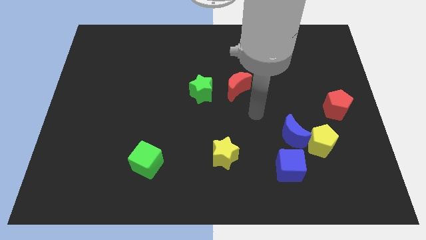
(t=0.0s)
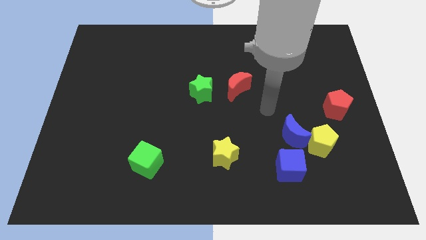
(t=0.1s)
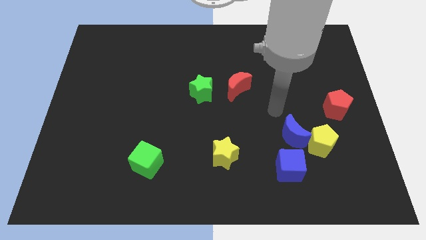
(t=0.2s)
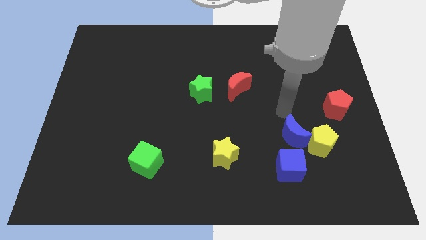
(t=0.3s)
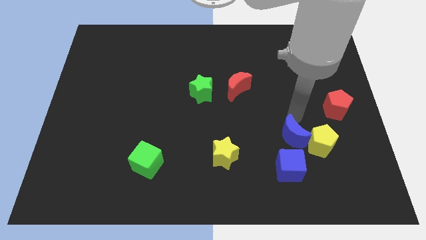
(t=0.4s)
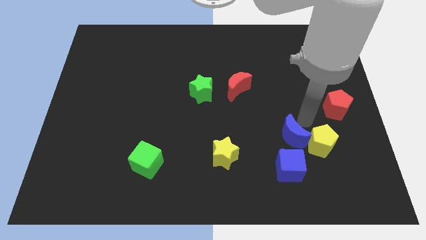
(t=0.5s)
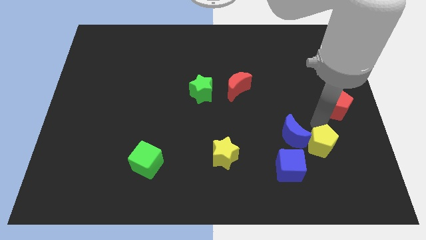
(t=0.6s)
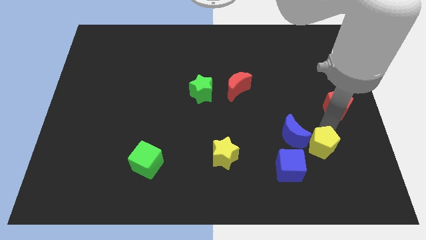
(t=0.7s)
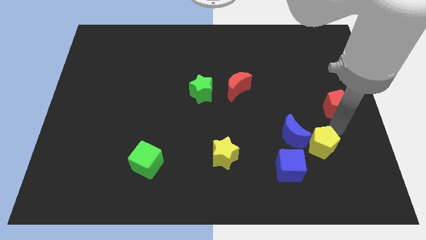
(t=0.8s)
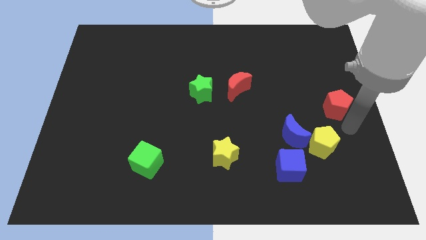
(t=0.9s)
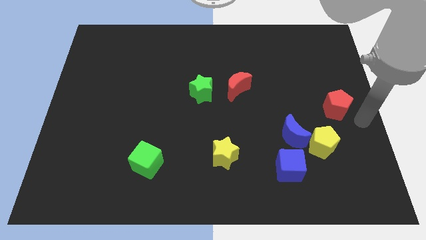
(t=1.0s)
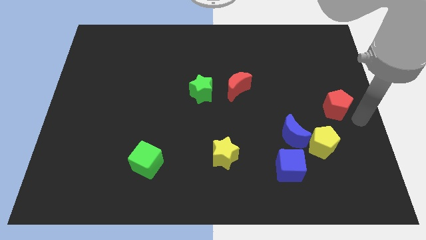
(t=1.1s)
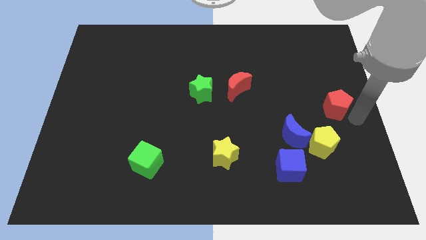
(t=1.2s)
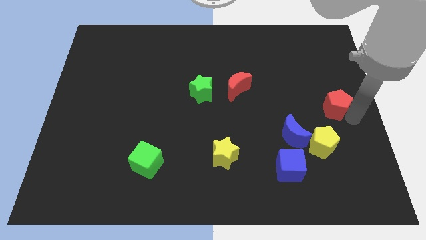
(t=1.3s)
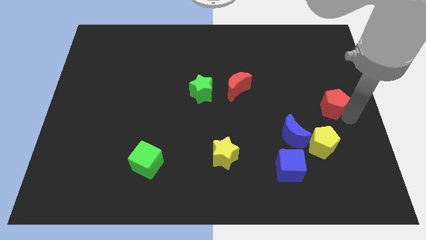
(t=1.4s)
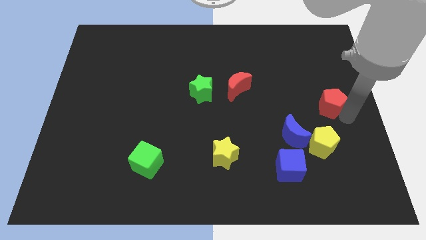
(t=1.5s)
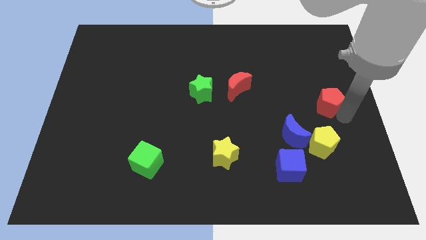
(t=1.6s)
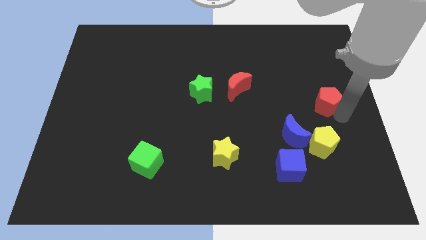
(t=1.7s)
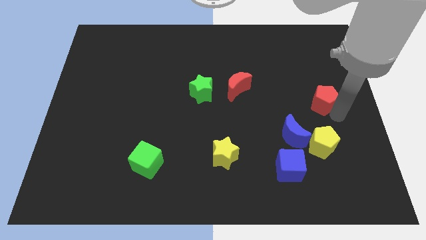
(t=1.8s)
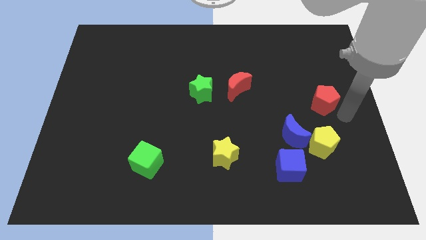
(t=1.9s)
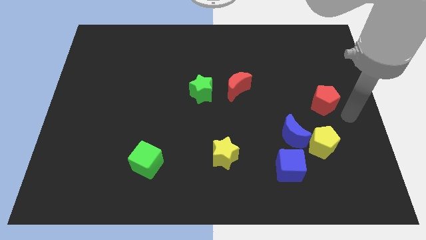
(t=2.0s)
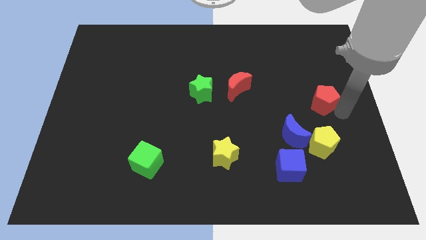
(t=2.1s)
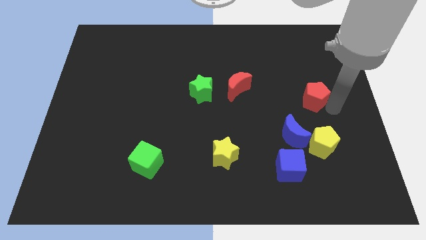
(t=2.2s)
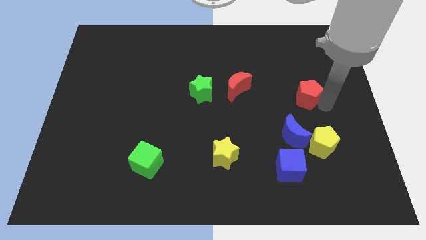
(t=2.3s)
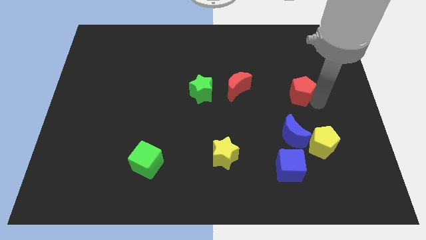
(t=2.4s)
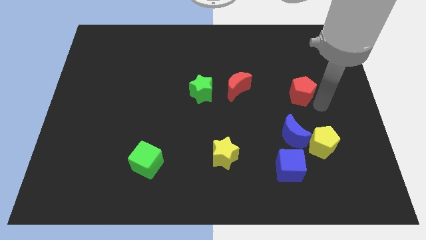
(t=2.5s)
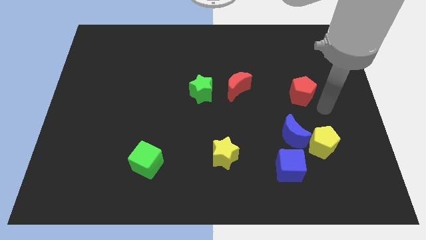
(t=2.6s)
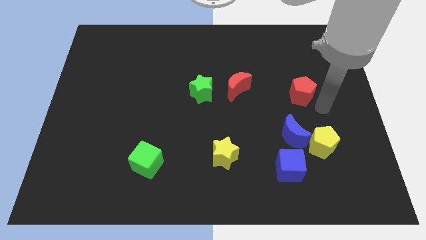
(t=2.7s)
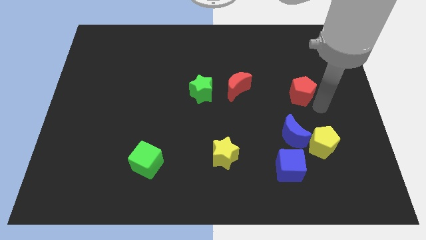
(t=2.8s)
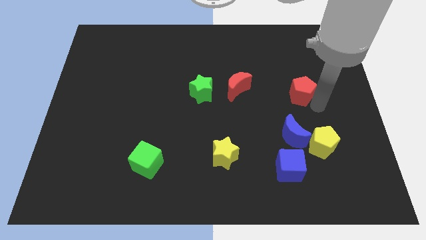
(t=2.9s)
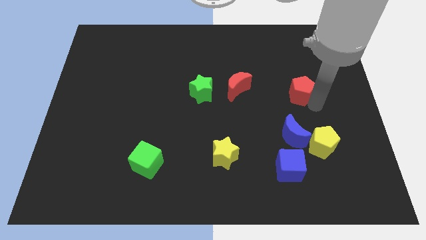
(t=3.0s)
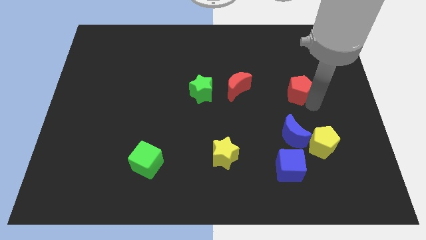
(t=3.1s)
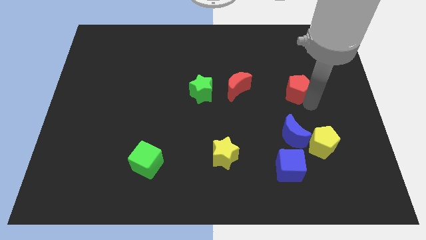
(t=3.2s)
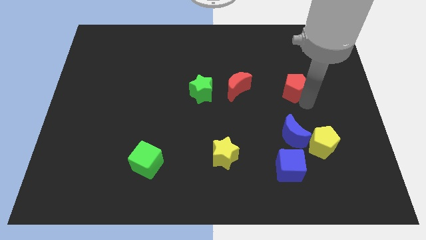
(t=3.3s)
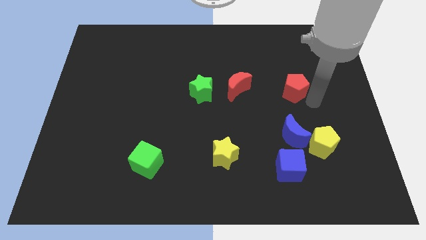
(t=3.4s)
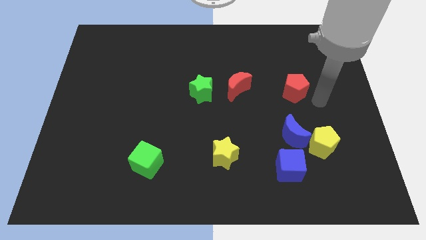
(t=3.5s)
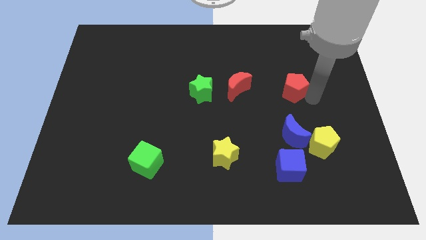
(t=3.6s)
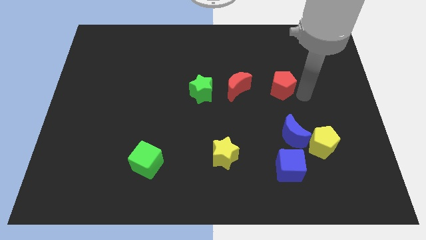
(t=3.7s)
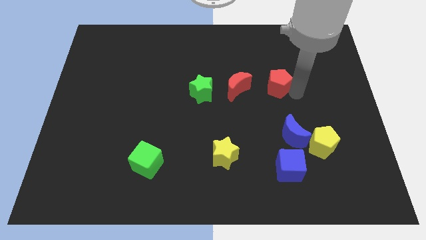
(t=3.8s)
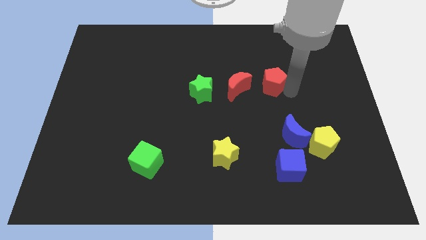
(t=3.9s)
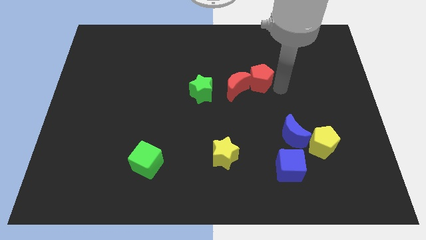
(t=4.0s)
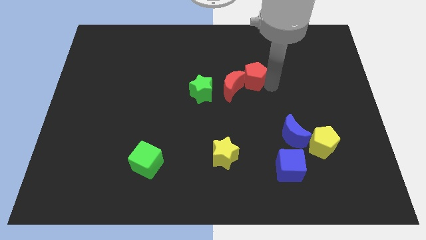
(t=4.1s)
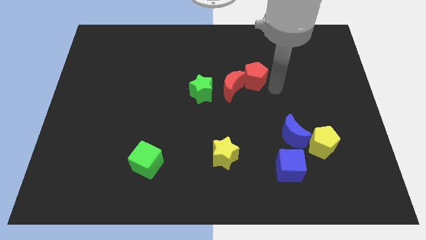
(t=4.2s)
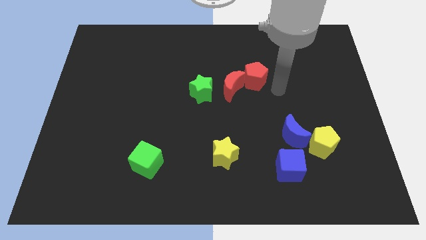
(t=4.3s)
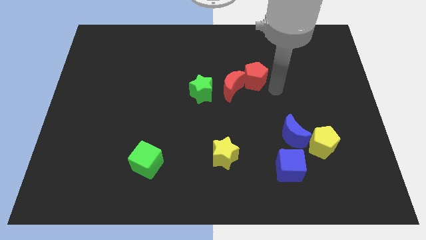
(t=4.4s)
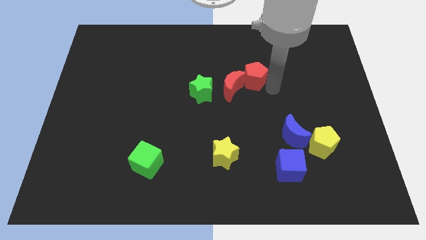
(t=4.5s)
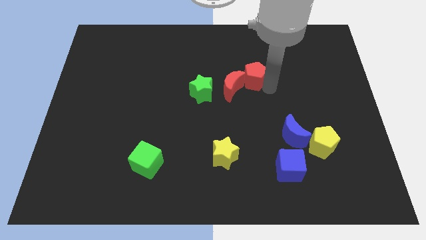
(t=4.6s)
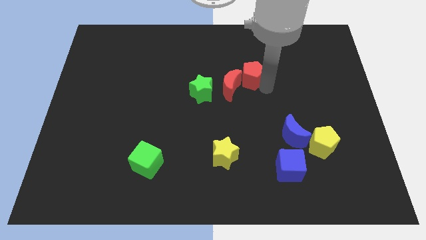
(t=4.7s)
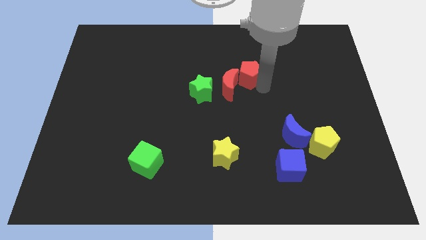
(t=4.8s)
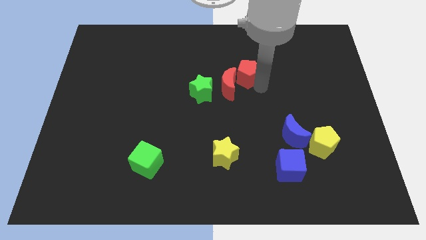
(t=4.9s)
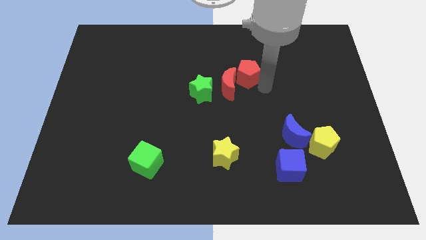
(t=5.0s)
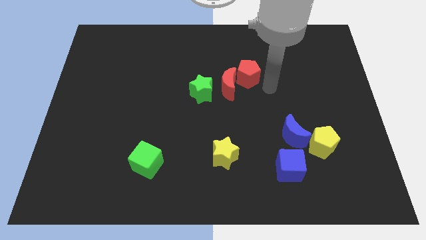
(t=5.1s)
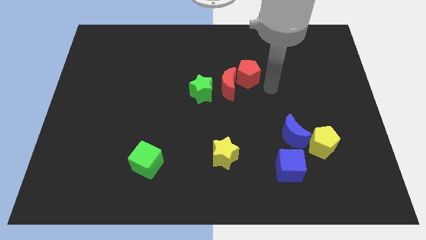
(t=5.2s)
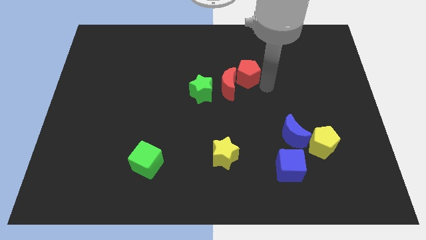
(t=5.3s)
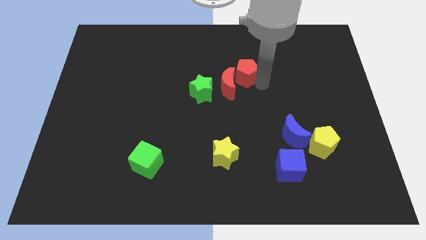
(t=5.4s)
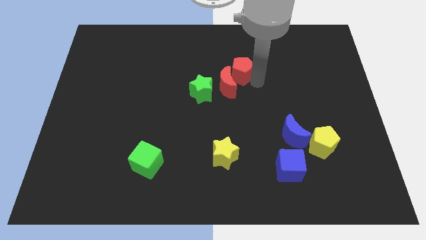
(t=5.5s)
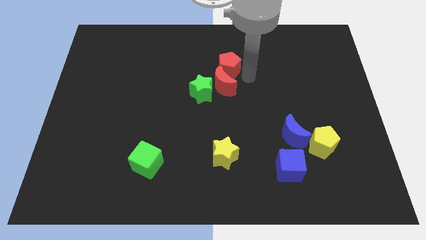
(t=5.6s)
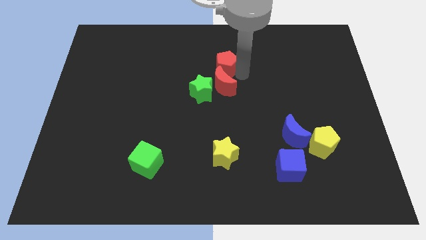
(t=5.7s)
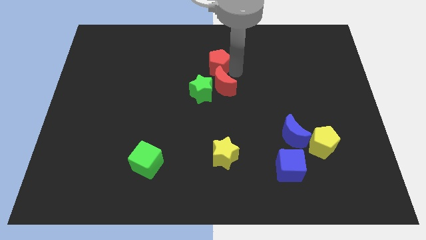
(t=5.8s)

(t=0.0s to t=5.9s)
push the red pentagon to the top of the green star

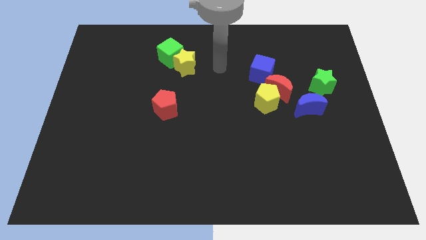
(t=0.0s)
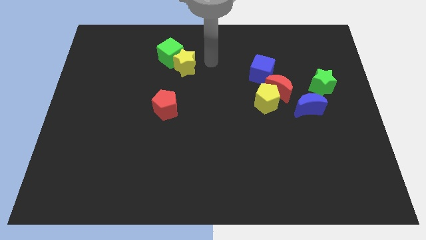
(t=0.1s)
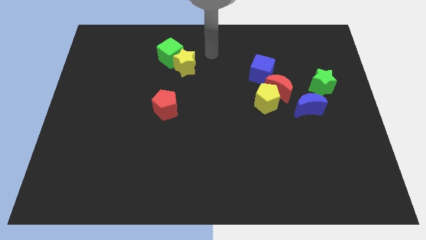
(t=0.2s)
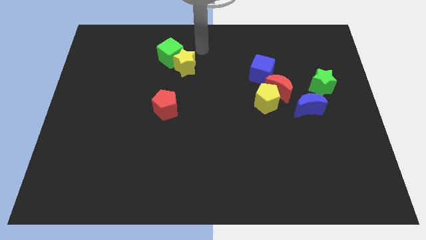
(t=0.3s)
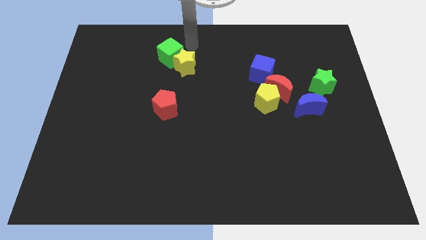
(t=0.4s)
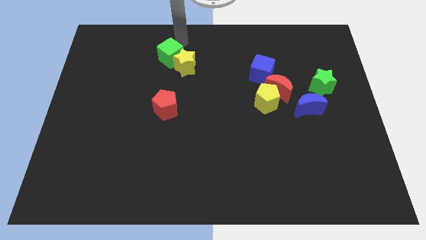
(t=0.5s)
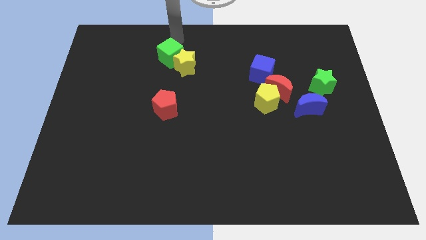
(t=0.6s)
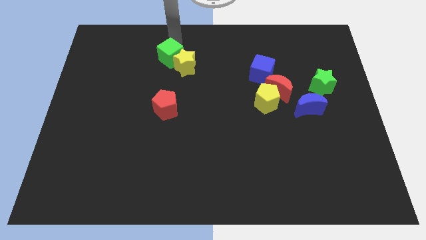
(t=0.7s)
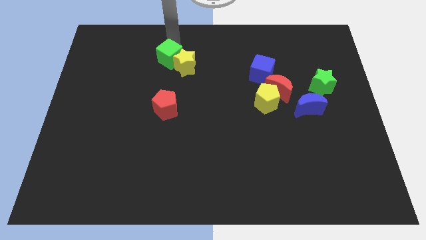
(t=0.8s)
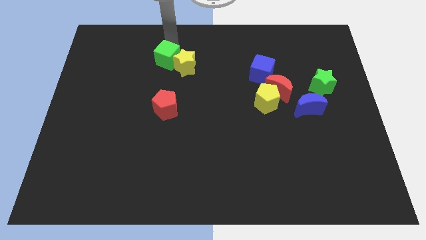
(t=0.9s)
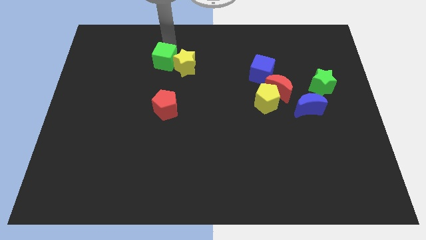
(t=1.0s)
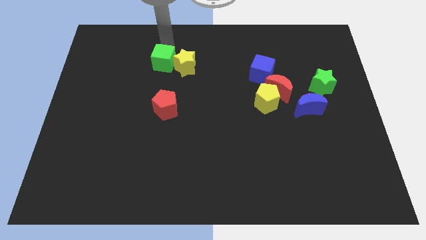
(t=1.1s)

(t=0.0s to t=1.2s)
push the green cube to the bottom left side of the yellow star
